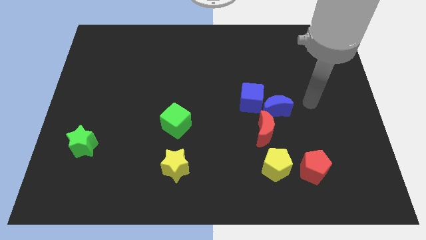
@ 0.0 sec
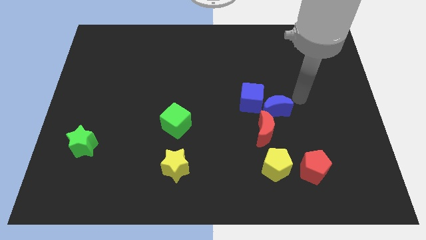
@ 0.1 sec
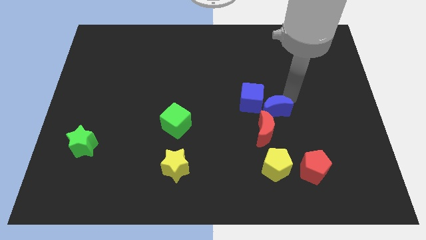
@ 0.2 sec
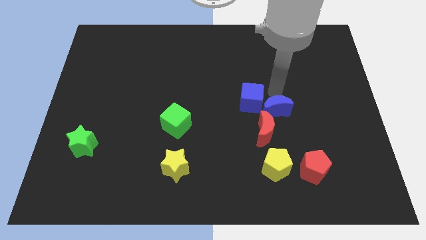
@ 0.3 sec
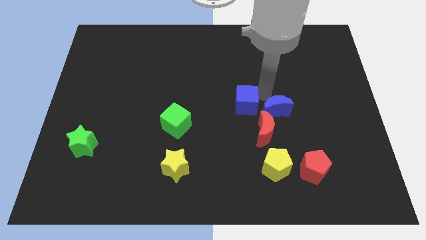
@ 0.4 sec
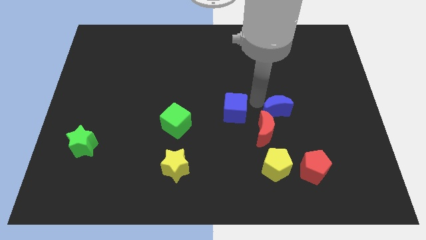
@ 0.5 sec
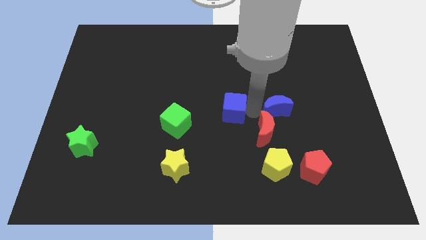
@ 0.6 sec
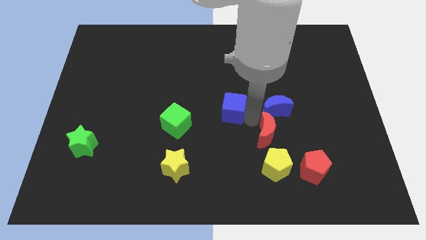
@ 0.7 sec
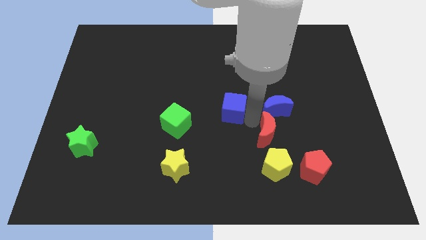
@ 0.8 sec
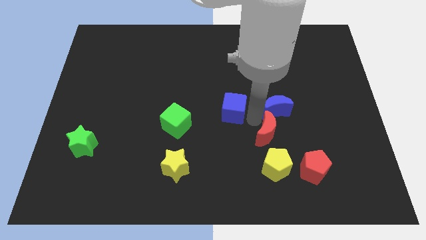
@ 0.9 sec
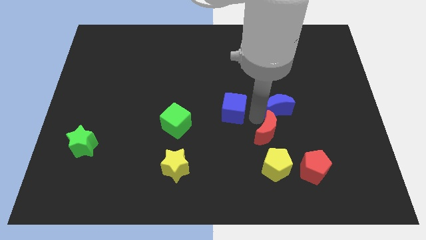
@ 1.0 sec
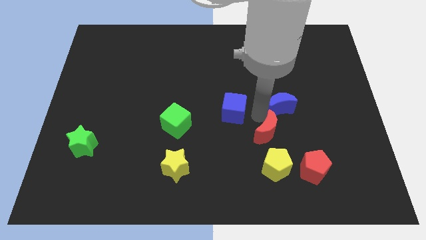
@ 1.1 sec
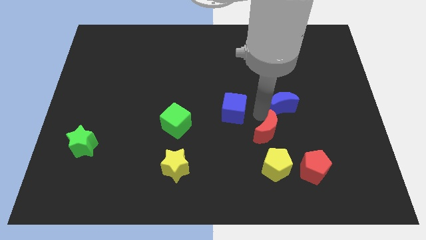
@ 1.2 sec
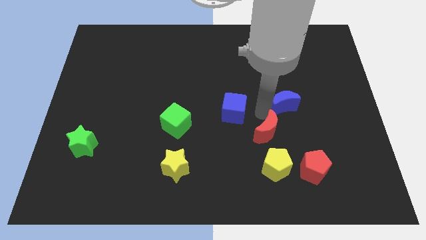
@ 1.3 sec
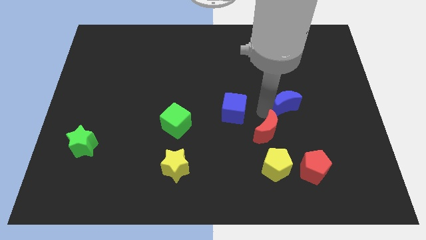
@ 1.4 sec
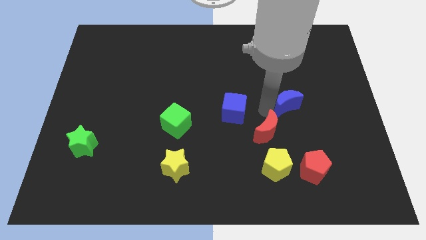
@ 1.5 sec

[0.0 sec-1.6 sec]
move the blue moon away from the blue cube and red moon

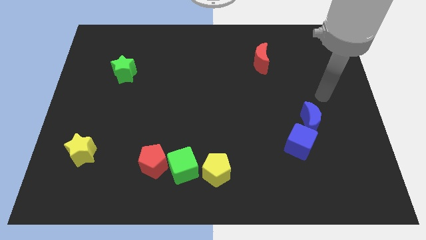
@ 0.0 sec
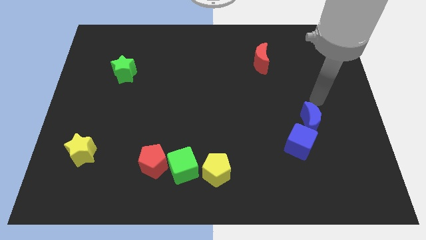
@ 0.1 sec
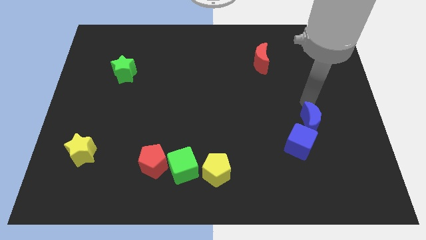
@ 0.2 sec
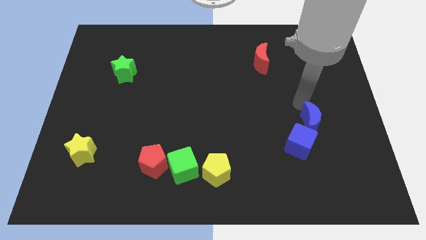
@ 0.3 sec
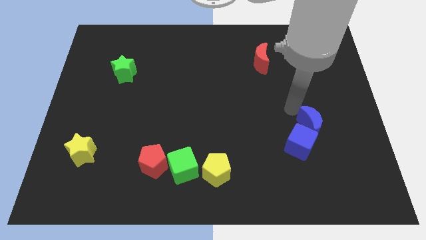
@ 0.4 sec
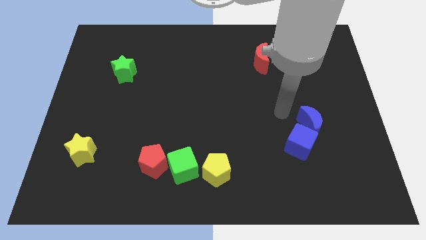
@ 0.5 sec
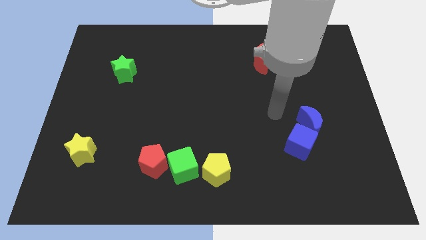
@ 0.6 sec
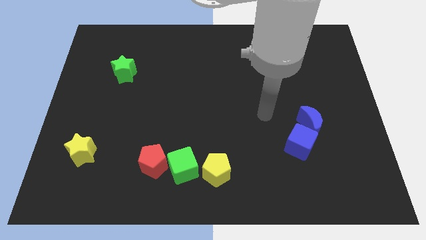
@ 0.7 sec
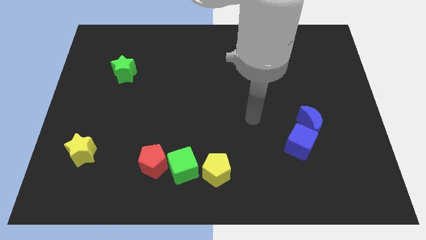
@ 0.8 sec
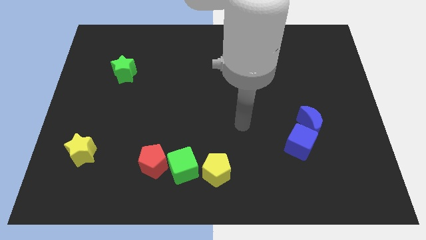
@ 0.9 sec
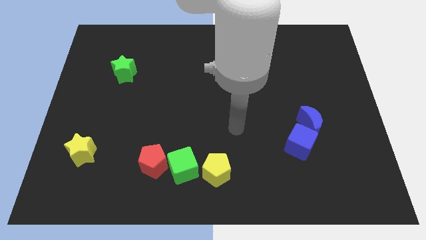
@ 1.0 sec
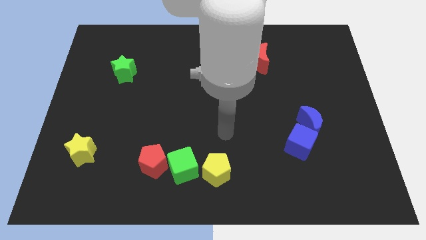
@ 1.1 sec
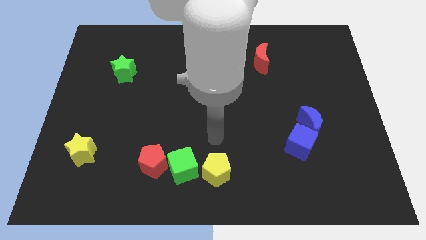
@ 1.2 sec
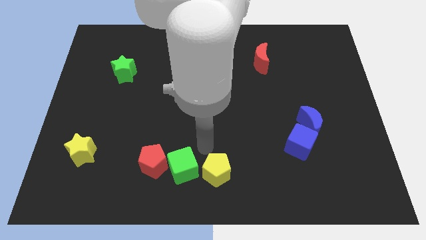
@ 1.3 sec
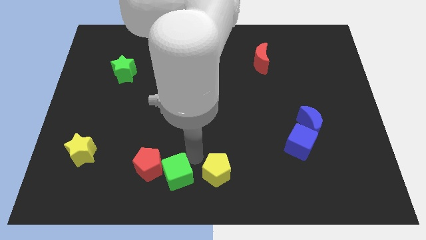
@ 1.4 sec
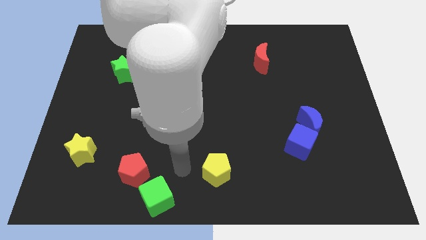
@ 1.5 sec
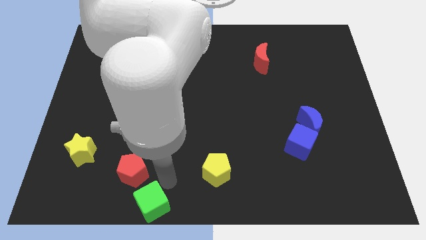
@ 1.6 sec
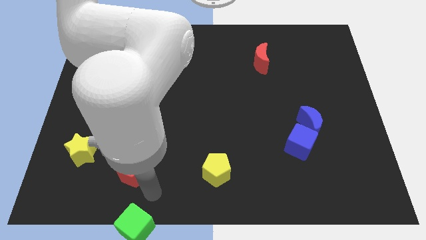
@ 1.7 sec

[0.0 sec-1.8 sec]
separate the red pentagon from the green cube

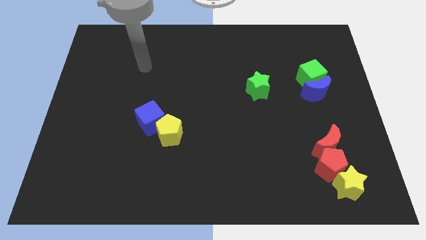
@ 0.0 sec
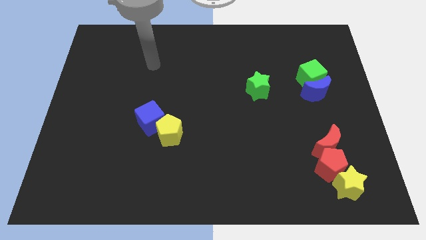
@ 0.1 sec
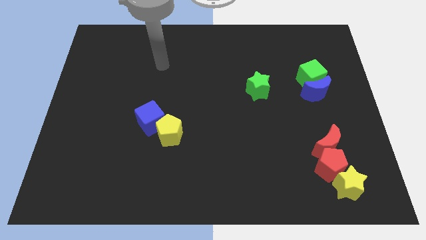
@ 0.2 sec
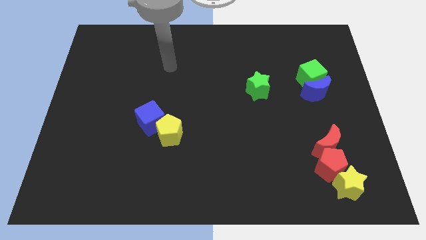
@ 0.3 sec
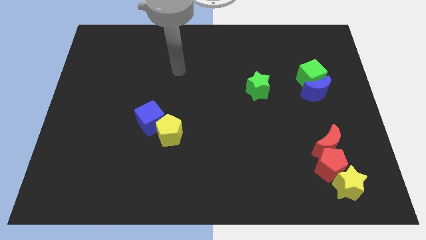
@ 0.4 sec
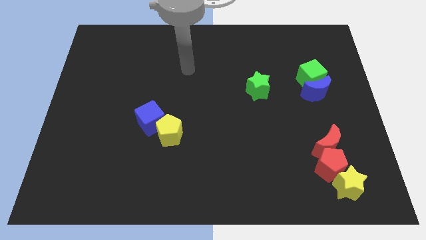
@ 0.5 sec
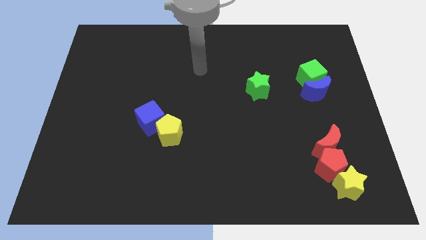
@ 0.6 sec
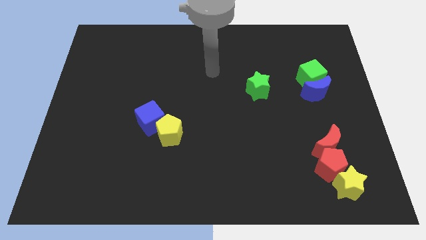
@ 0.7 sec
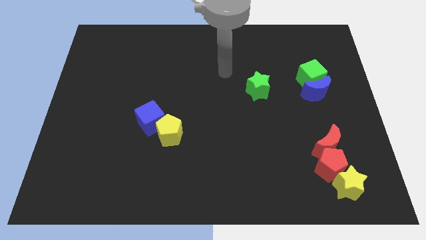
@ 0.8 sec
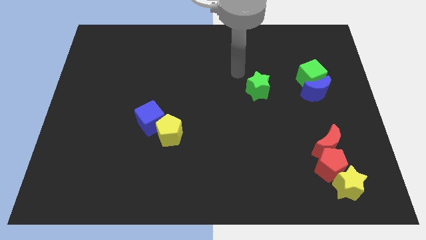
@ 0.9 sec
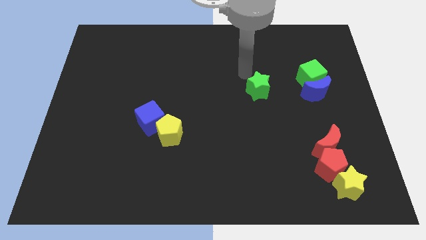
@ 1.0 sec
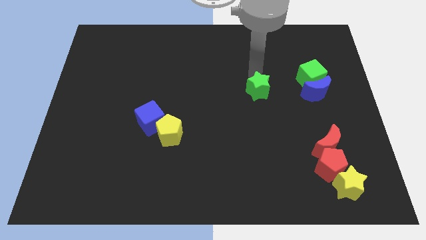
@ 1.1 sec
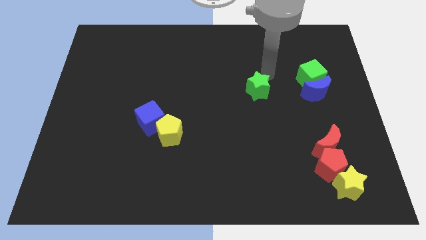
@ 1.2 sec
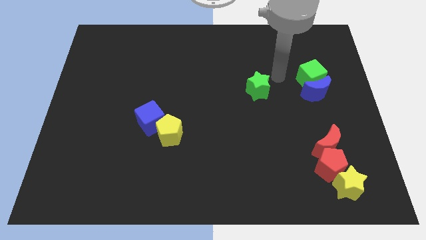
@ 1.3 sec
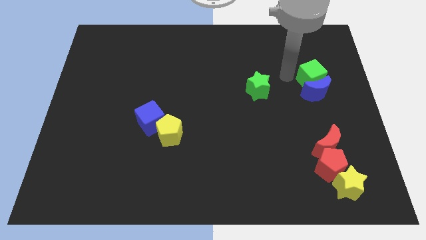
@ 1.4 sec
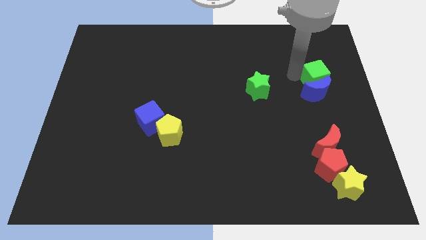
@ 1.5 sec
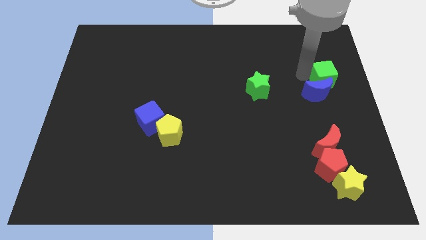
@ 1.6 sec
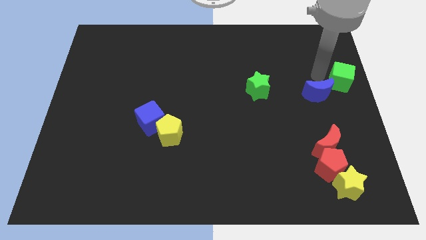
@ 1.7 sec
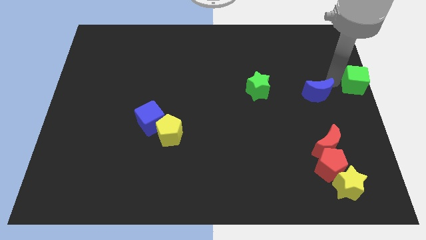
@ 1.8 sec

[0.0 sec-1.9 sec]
separate the blue moon from the green cube

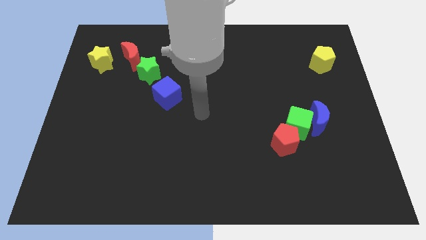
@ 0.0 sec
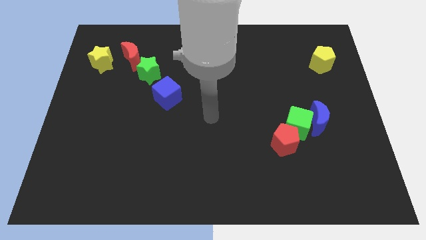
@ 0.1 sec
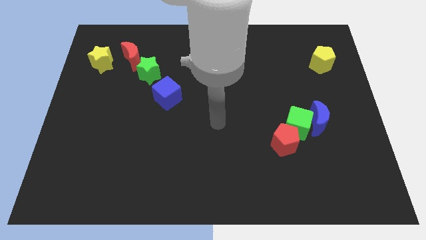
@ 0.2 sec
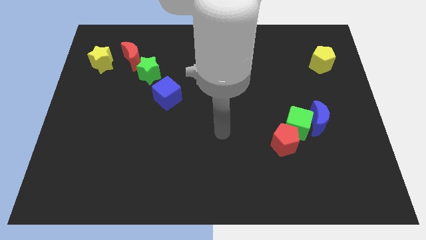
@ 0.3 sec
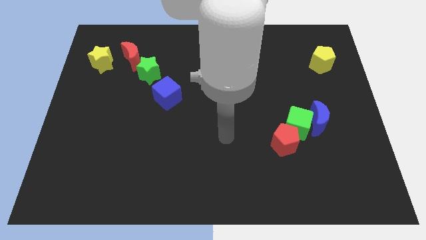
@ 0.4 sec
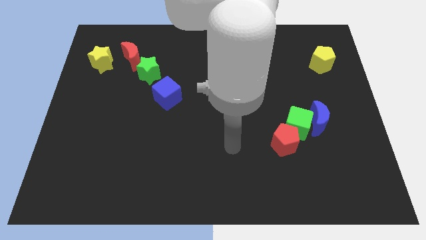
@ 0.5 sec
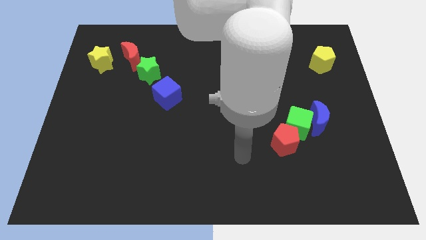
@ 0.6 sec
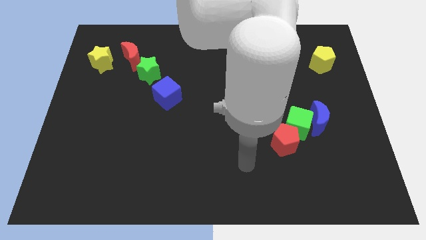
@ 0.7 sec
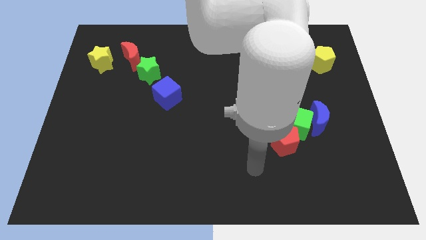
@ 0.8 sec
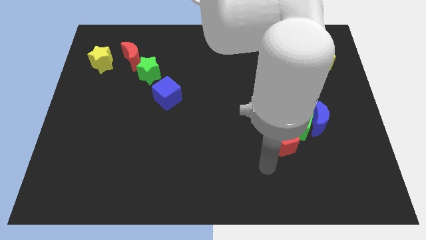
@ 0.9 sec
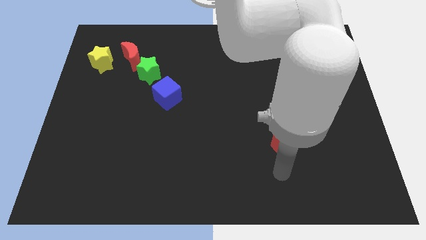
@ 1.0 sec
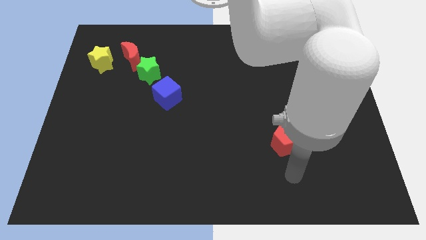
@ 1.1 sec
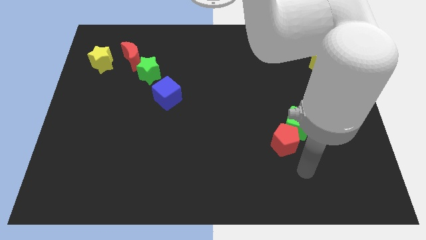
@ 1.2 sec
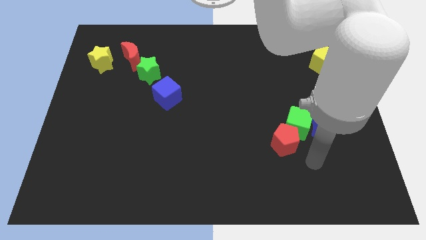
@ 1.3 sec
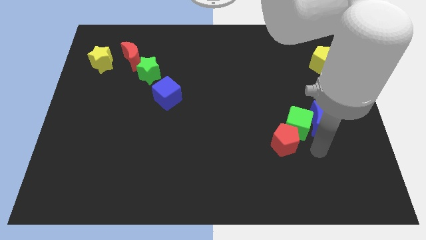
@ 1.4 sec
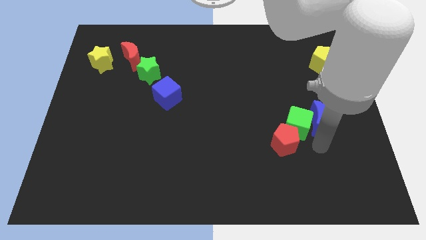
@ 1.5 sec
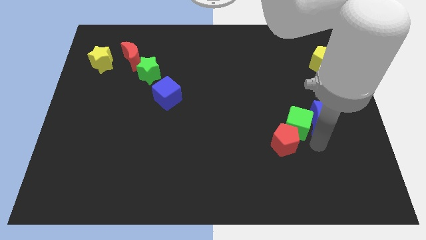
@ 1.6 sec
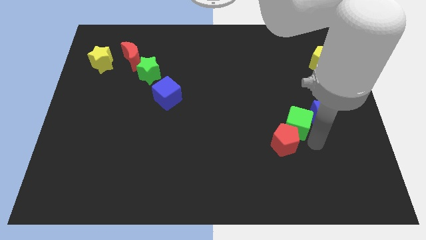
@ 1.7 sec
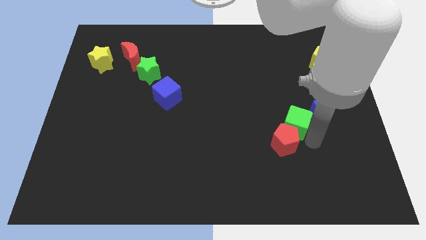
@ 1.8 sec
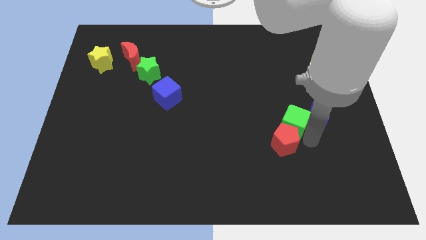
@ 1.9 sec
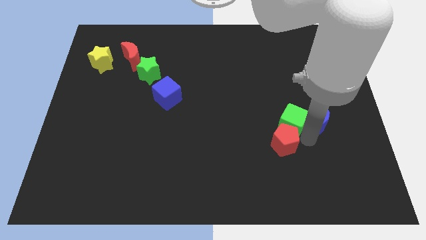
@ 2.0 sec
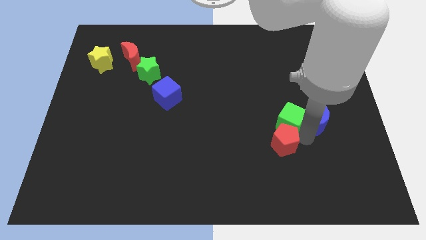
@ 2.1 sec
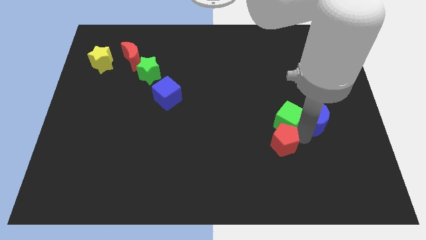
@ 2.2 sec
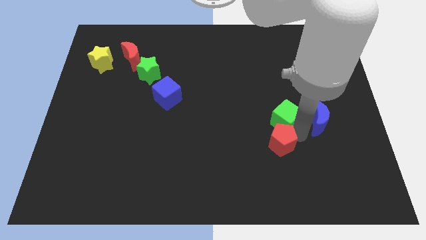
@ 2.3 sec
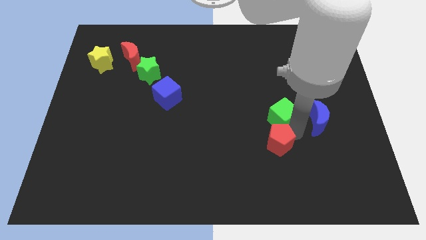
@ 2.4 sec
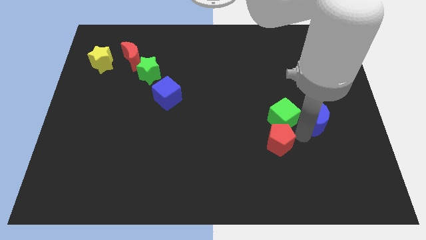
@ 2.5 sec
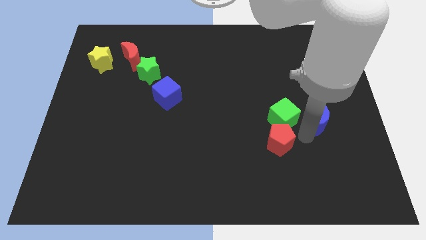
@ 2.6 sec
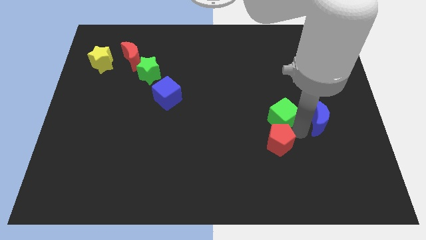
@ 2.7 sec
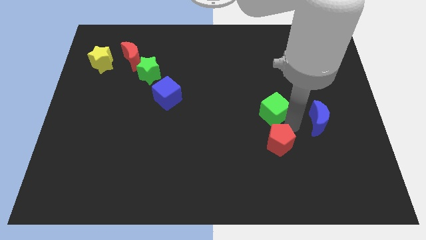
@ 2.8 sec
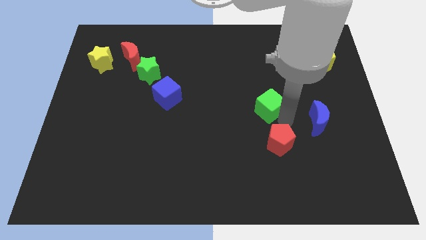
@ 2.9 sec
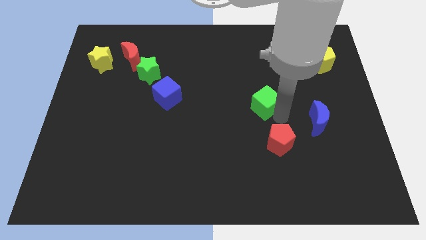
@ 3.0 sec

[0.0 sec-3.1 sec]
pull the green cube apart from the blue moon and red pentagon

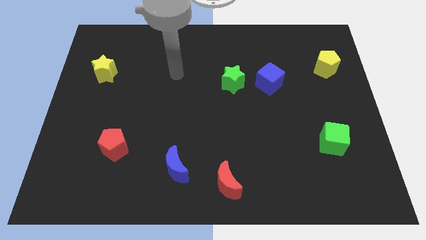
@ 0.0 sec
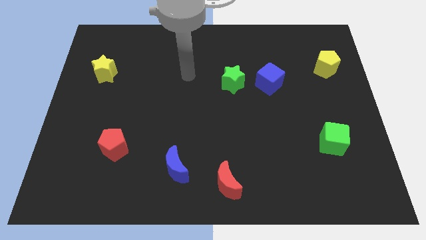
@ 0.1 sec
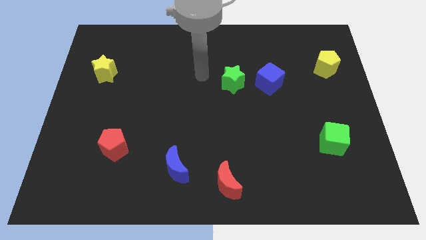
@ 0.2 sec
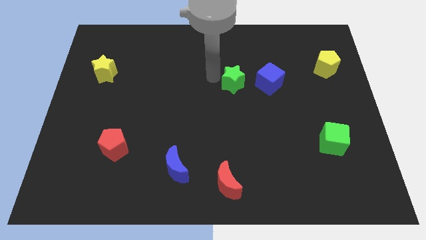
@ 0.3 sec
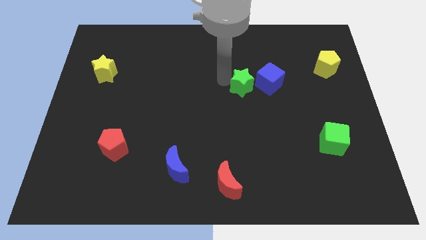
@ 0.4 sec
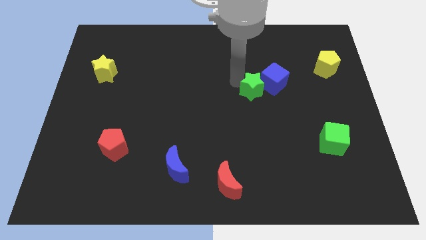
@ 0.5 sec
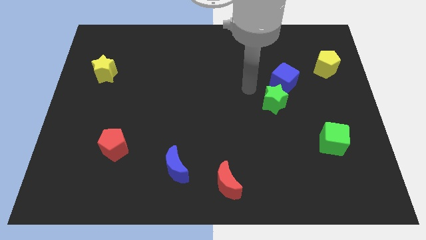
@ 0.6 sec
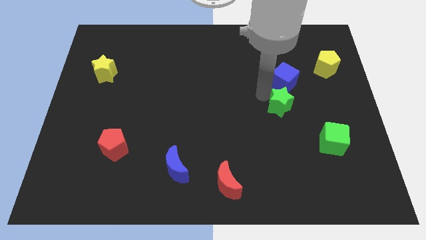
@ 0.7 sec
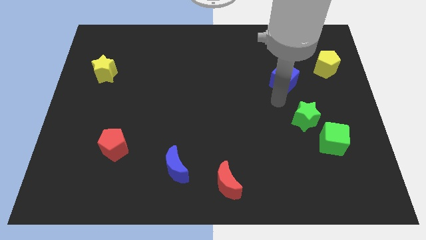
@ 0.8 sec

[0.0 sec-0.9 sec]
move the blue cube away from the green star
